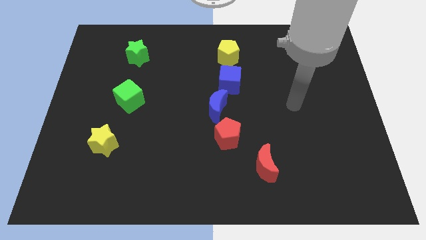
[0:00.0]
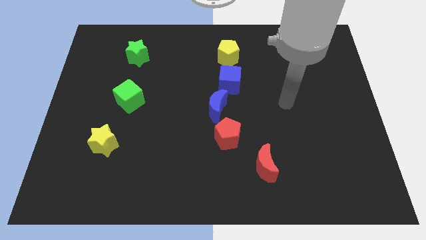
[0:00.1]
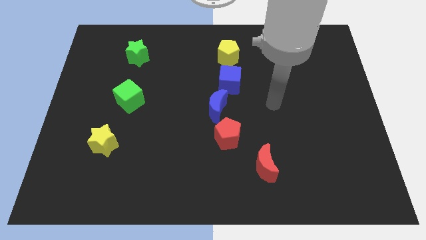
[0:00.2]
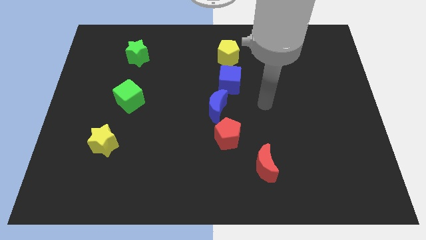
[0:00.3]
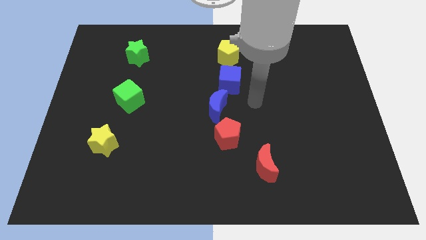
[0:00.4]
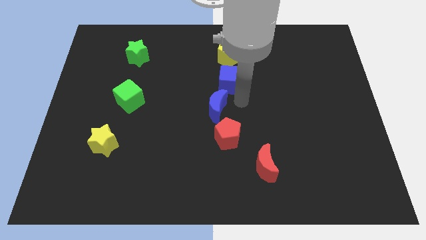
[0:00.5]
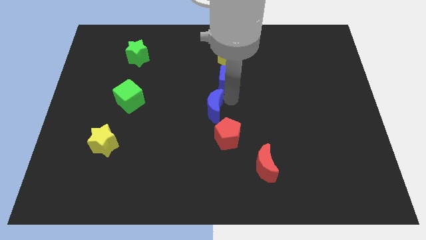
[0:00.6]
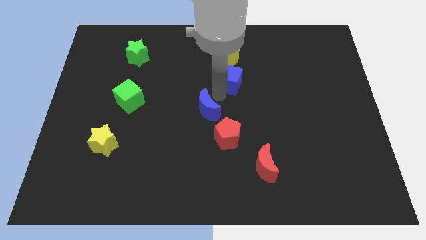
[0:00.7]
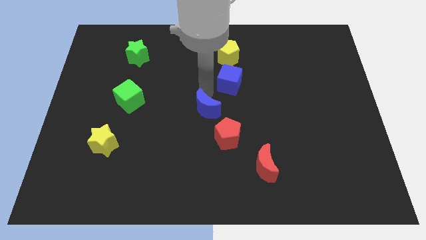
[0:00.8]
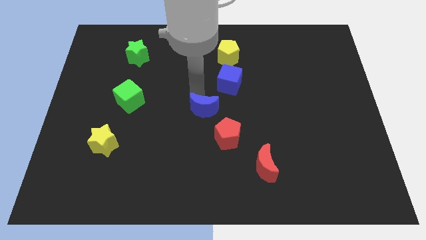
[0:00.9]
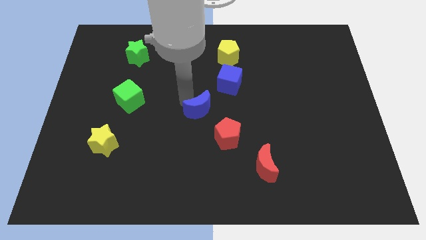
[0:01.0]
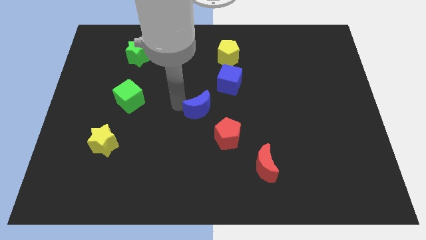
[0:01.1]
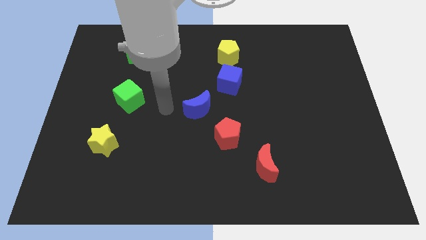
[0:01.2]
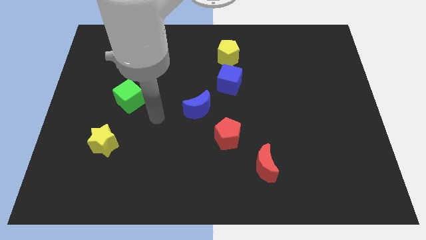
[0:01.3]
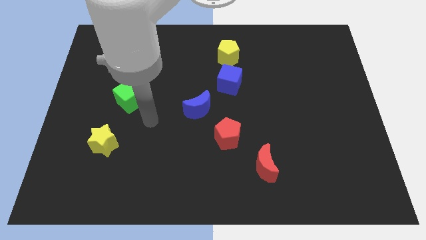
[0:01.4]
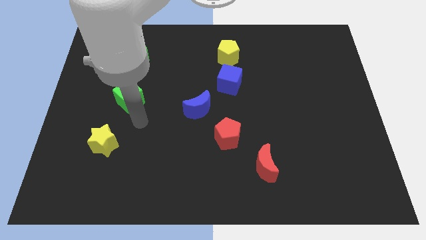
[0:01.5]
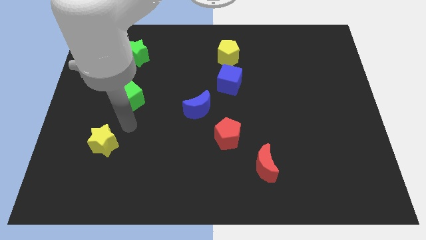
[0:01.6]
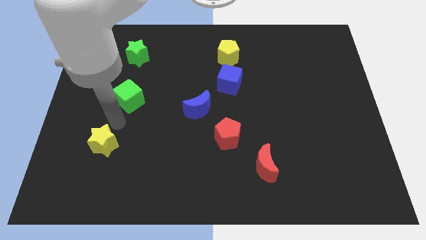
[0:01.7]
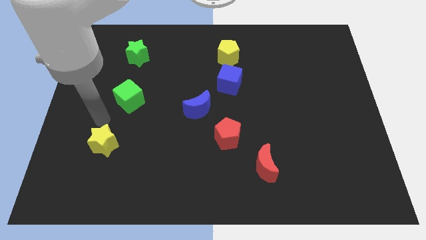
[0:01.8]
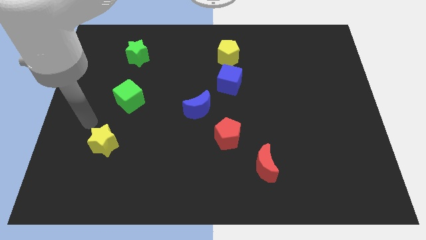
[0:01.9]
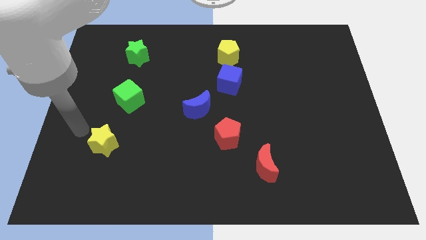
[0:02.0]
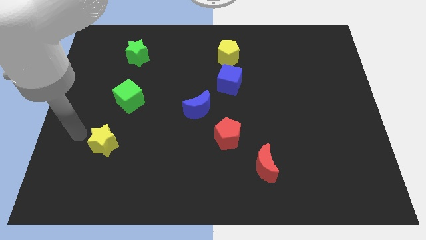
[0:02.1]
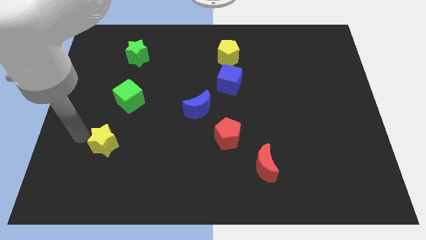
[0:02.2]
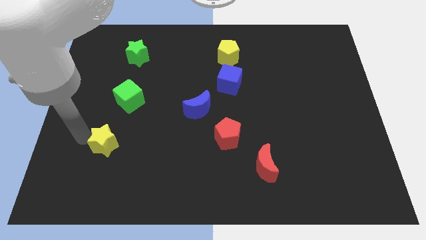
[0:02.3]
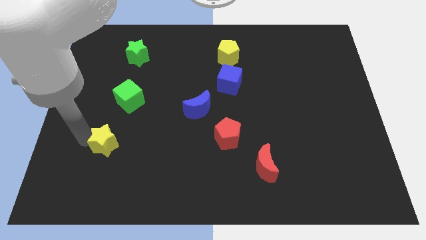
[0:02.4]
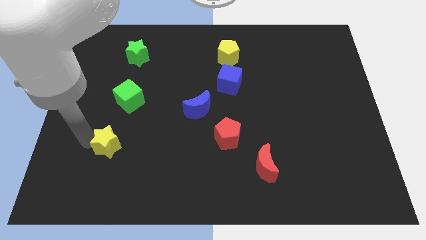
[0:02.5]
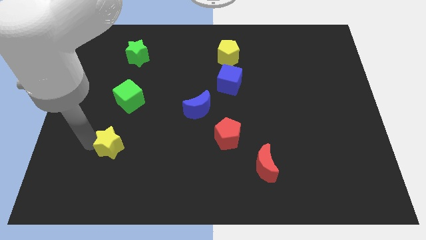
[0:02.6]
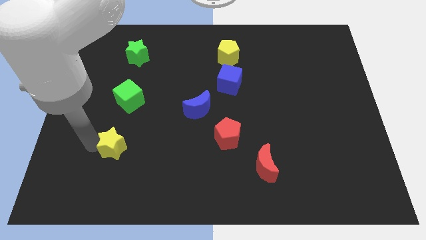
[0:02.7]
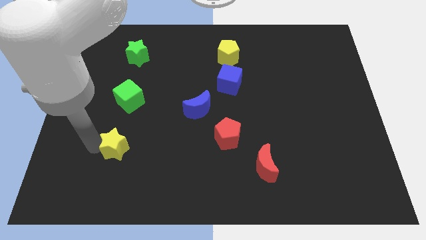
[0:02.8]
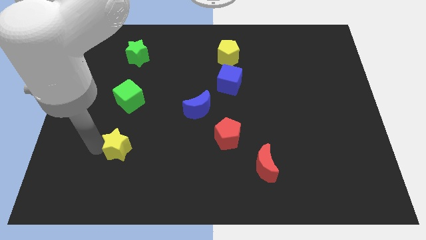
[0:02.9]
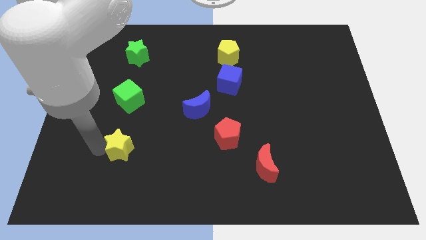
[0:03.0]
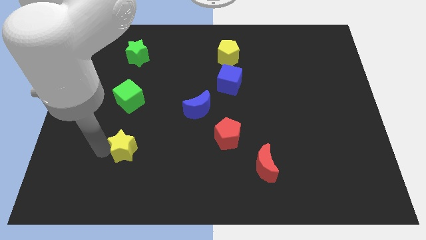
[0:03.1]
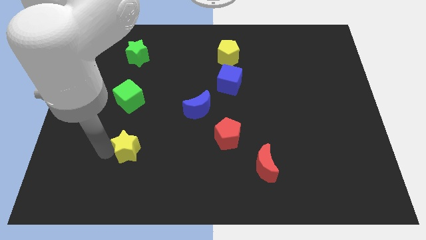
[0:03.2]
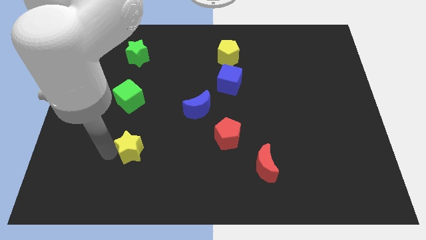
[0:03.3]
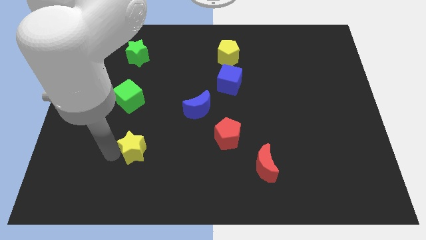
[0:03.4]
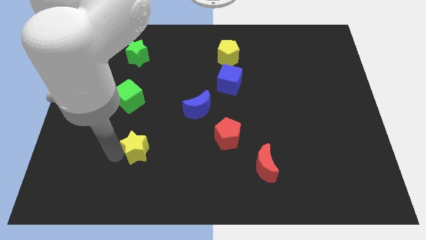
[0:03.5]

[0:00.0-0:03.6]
slightly move the yellow star right

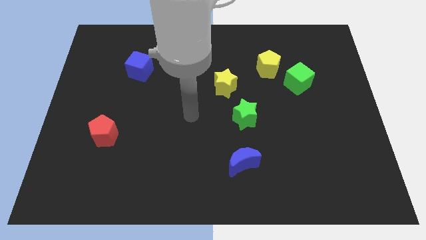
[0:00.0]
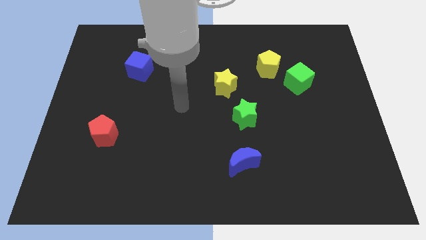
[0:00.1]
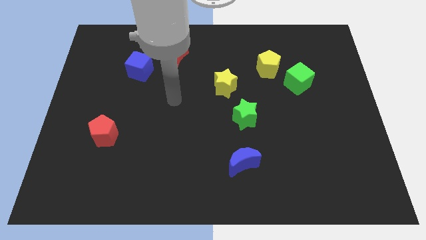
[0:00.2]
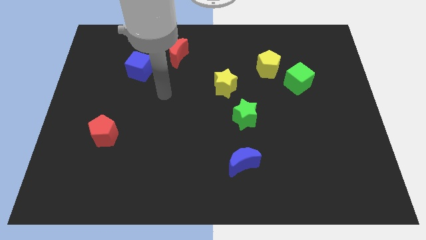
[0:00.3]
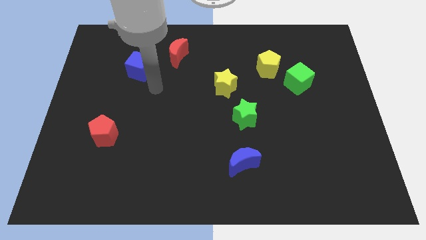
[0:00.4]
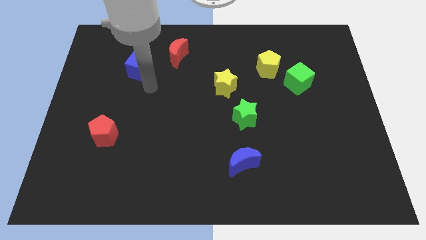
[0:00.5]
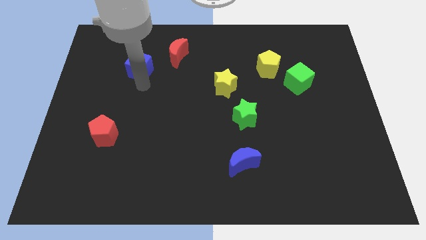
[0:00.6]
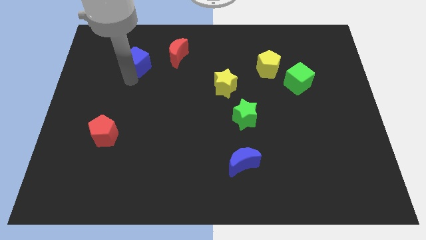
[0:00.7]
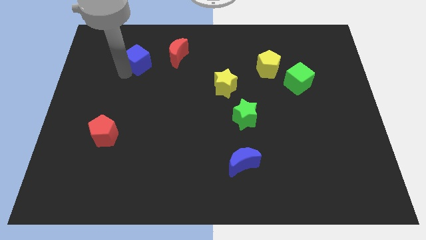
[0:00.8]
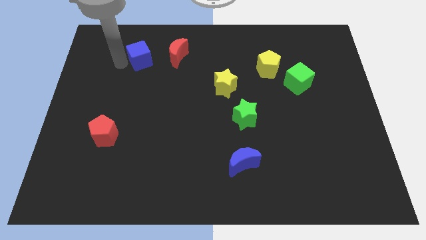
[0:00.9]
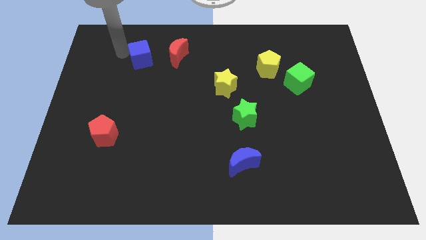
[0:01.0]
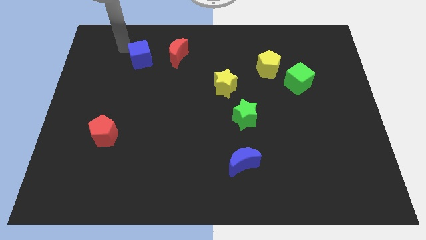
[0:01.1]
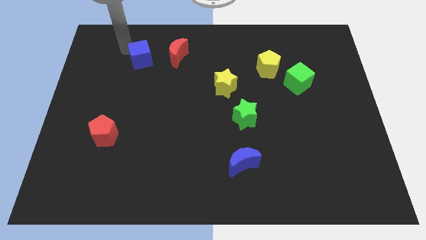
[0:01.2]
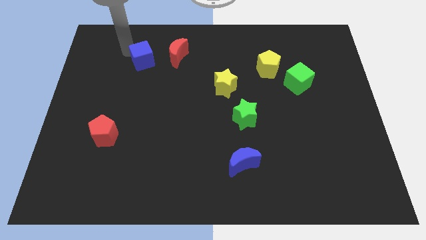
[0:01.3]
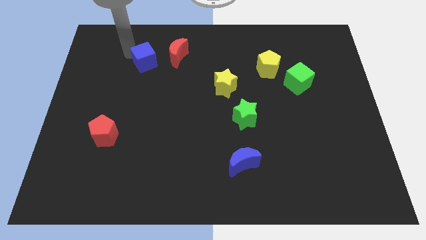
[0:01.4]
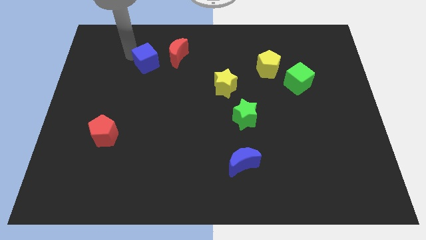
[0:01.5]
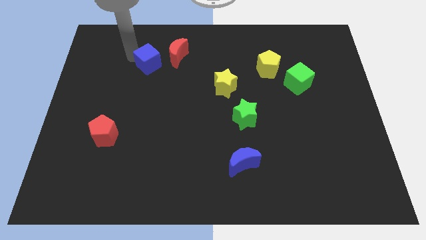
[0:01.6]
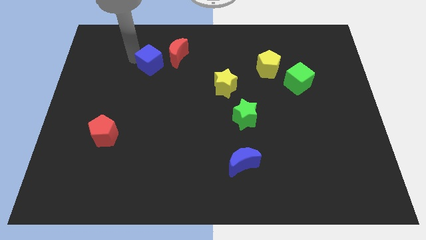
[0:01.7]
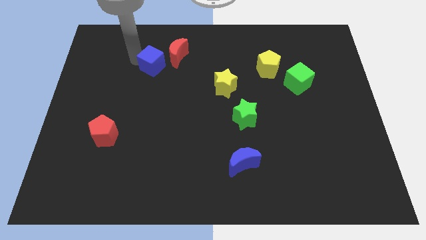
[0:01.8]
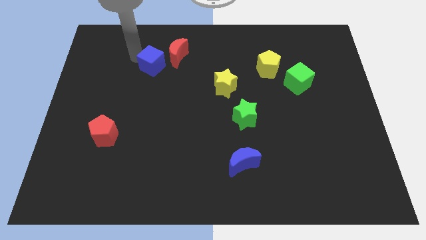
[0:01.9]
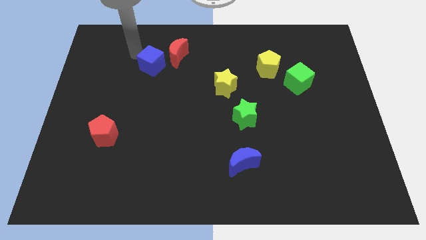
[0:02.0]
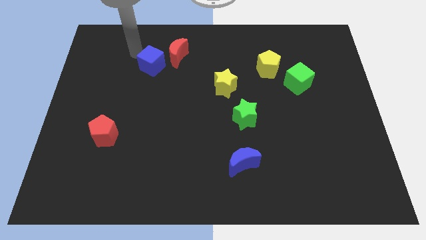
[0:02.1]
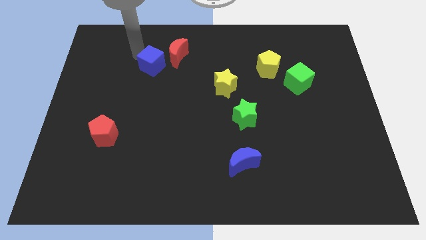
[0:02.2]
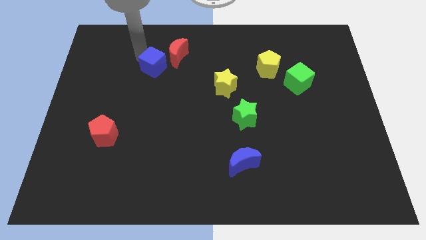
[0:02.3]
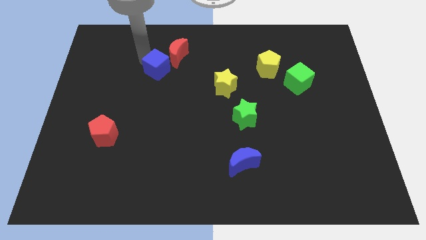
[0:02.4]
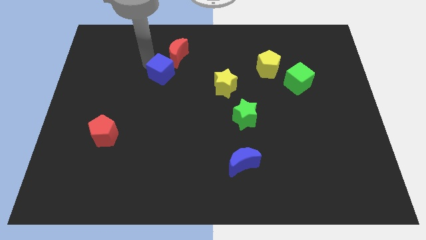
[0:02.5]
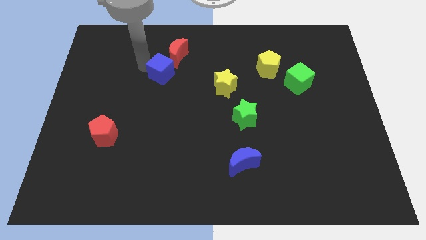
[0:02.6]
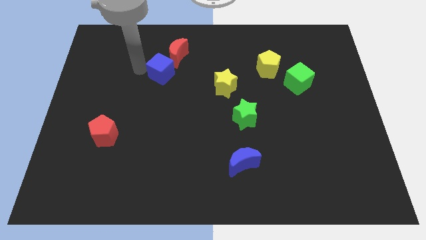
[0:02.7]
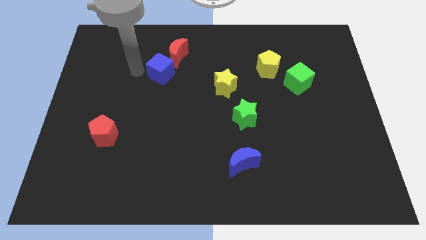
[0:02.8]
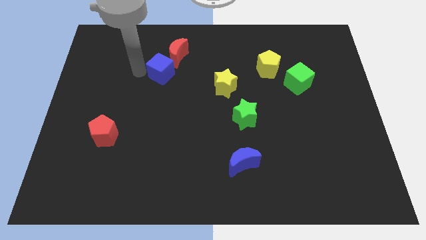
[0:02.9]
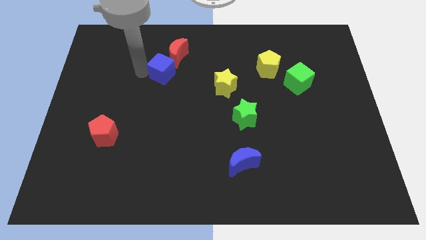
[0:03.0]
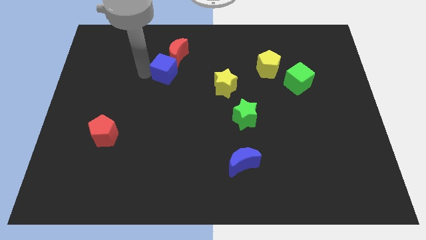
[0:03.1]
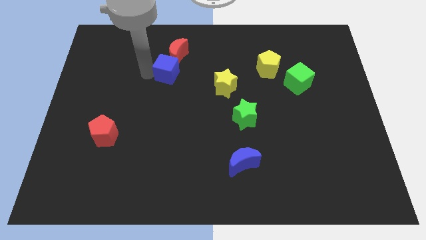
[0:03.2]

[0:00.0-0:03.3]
move the blue cube to the right a little

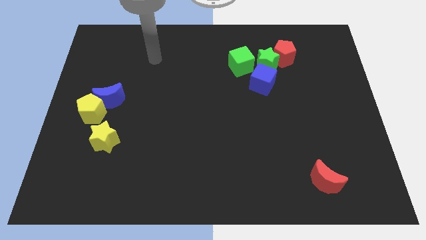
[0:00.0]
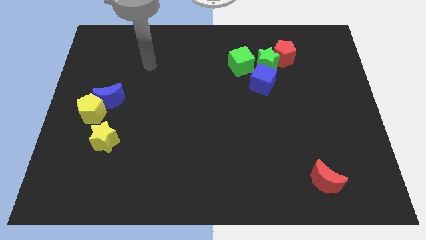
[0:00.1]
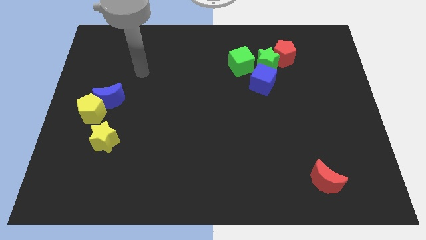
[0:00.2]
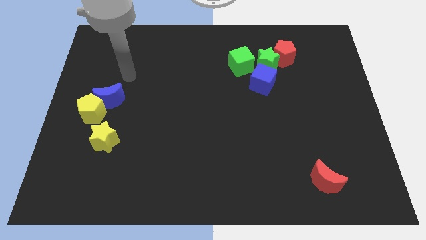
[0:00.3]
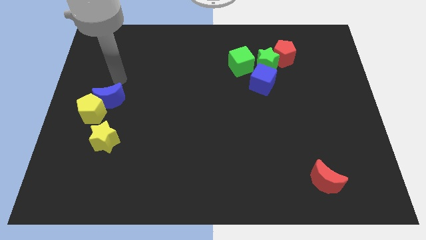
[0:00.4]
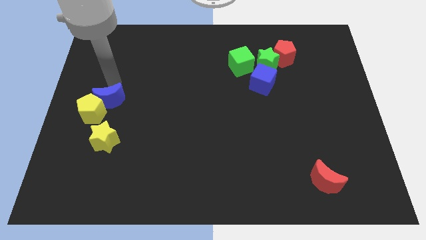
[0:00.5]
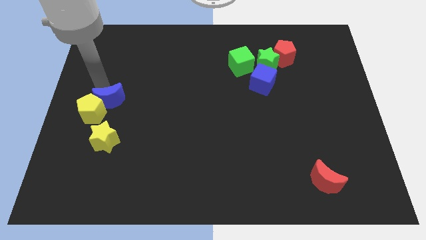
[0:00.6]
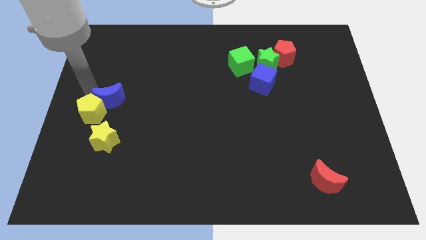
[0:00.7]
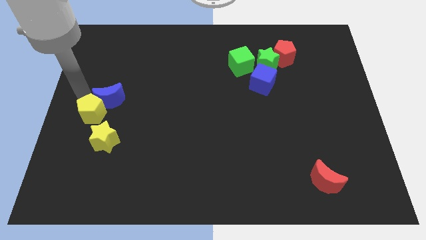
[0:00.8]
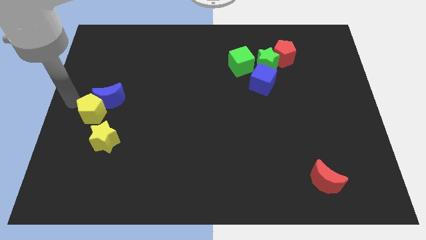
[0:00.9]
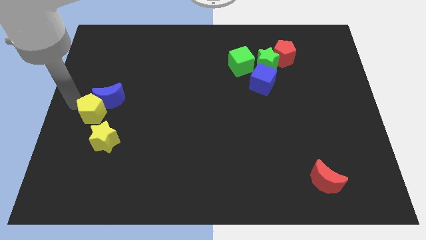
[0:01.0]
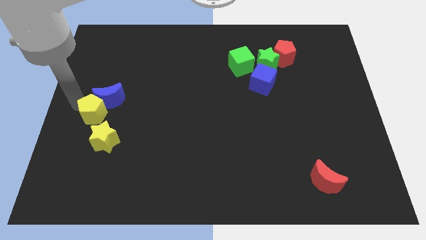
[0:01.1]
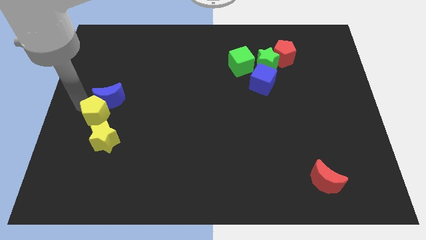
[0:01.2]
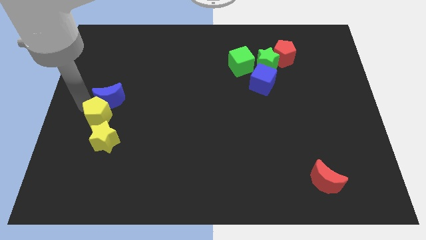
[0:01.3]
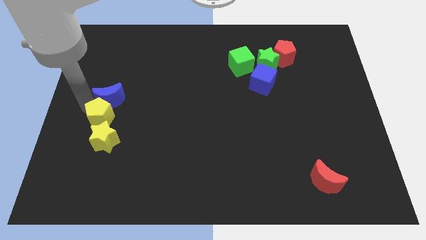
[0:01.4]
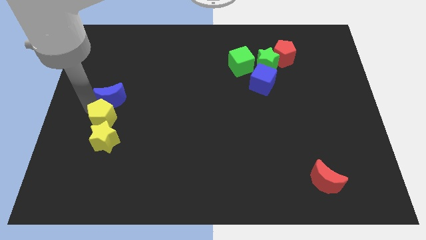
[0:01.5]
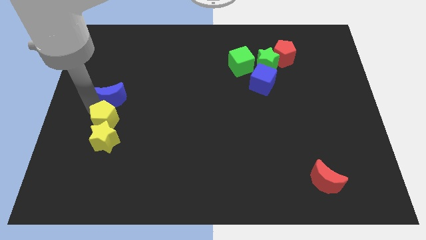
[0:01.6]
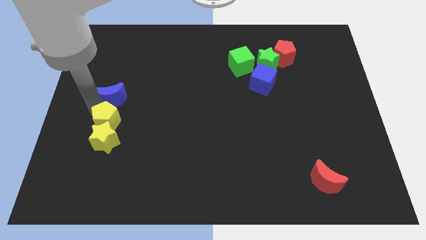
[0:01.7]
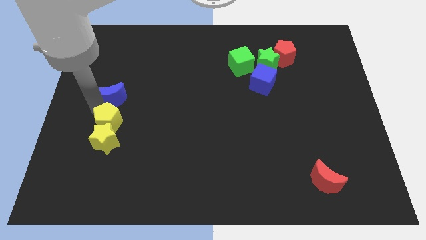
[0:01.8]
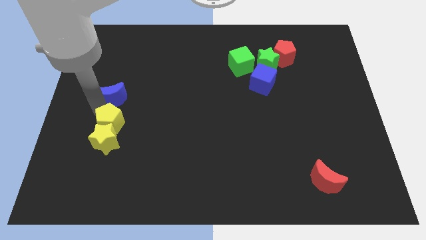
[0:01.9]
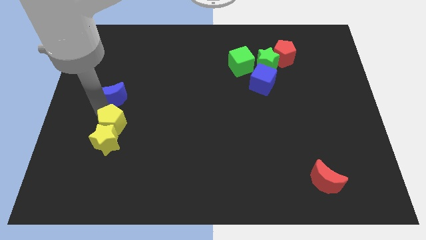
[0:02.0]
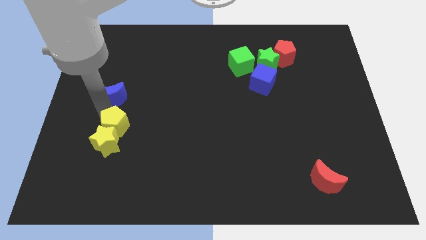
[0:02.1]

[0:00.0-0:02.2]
slightly slide the yellow pentagon diagonally downwards and right
